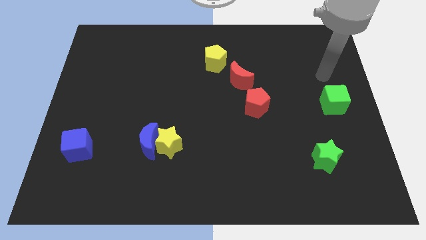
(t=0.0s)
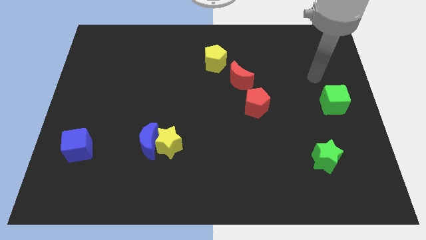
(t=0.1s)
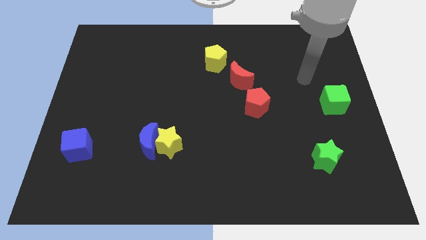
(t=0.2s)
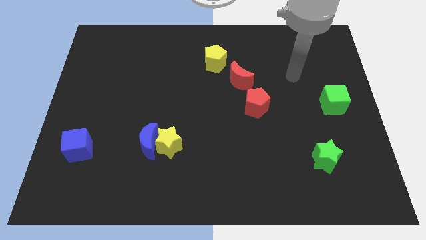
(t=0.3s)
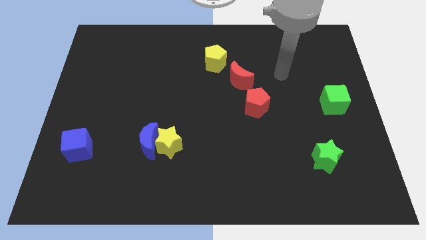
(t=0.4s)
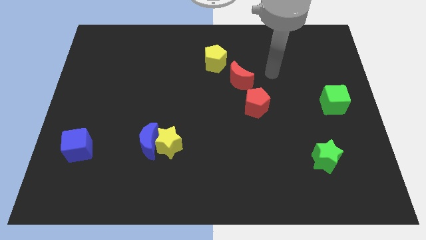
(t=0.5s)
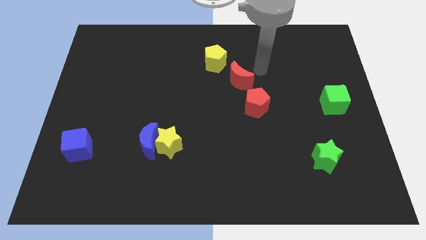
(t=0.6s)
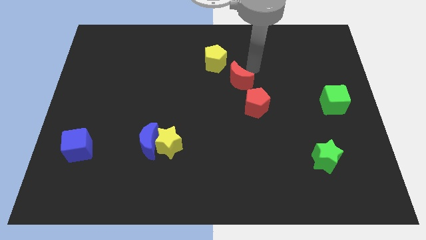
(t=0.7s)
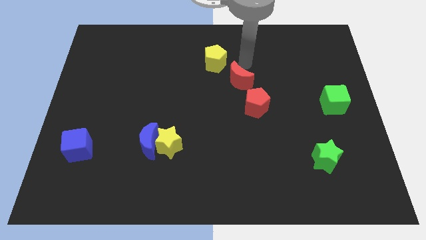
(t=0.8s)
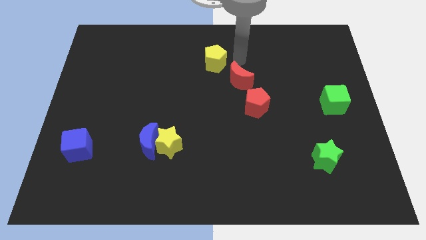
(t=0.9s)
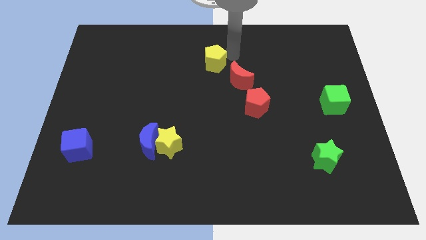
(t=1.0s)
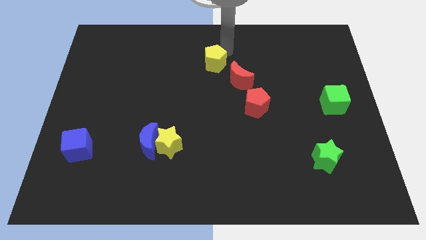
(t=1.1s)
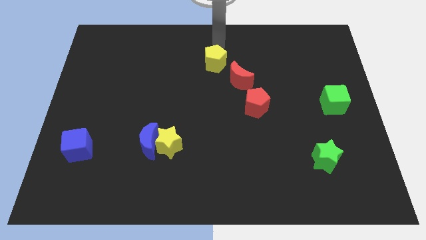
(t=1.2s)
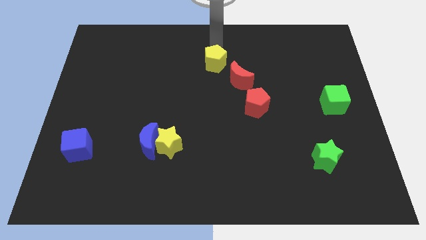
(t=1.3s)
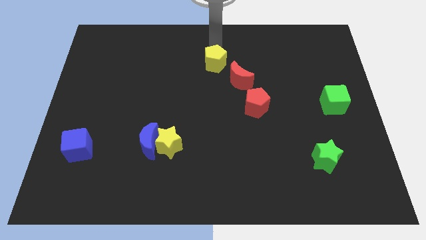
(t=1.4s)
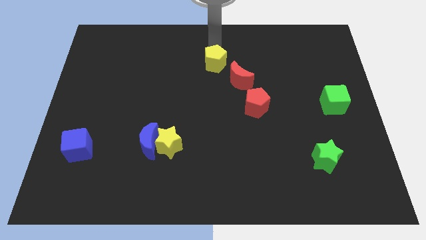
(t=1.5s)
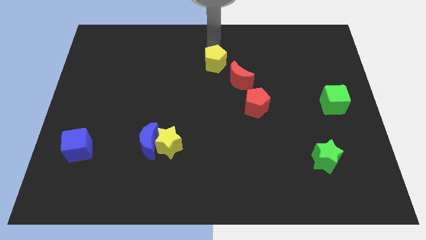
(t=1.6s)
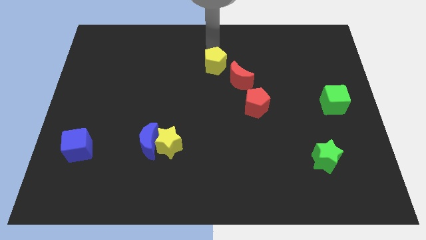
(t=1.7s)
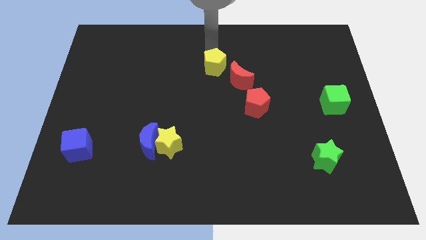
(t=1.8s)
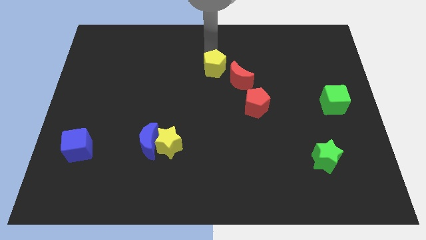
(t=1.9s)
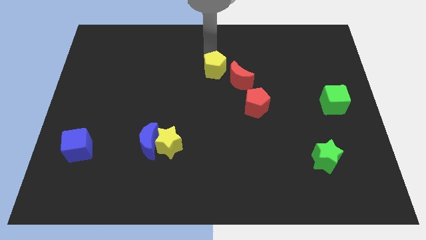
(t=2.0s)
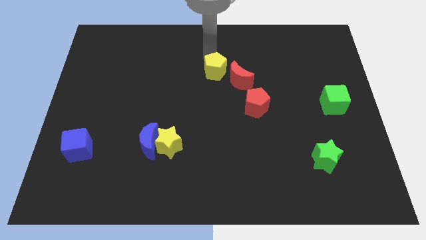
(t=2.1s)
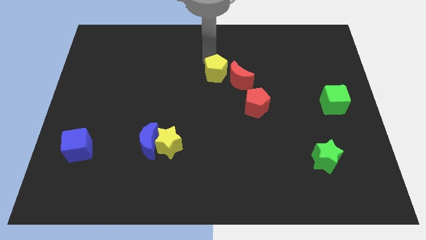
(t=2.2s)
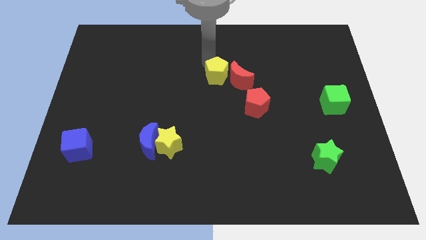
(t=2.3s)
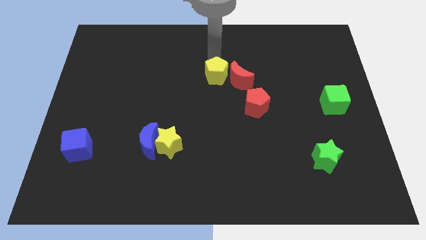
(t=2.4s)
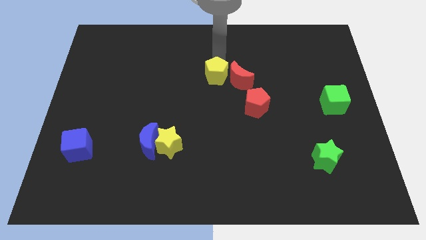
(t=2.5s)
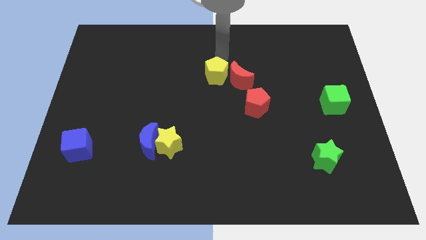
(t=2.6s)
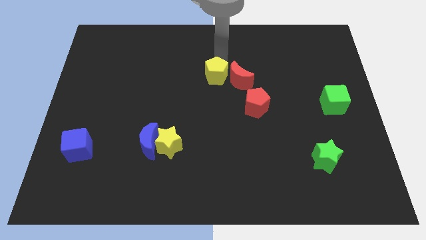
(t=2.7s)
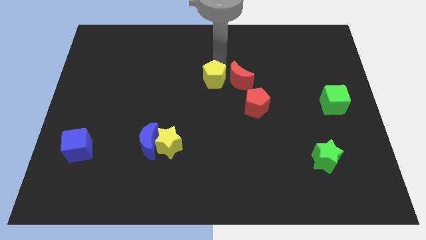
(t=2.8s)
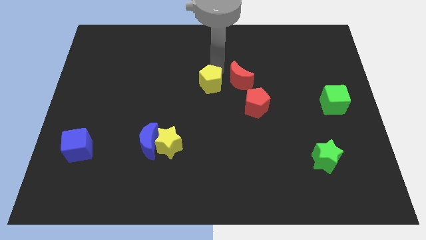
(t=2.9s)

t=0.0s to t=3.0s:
slightly move the yellow pentagon down

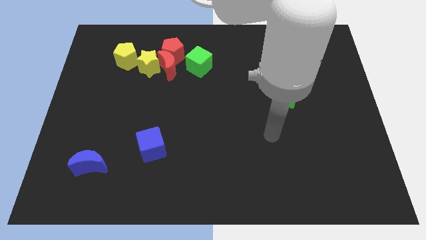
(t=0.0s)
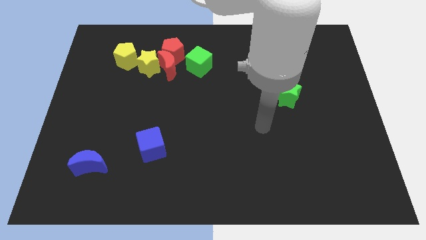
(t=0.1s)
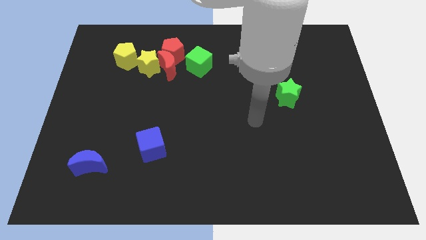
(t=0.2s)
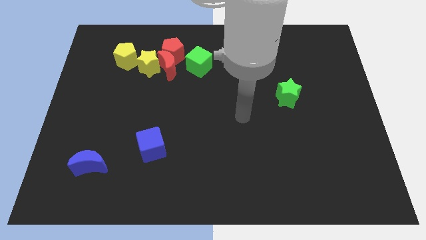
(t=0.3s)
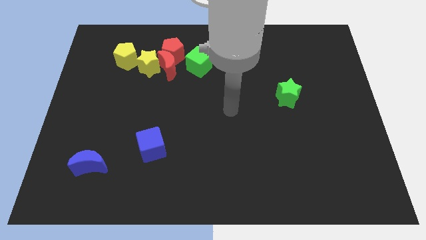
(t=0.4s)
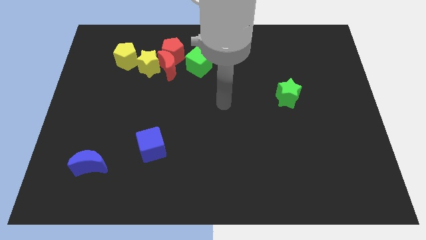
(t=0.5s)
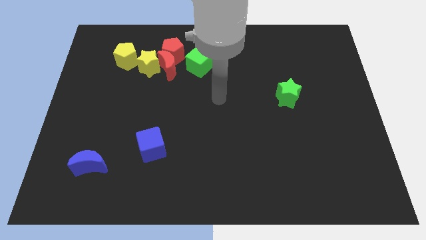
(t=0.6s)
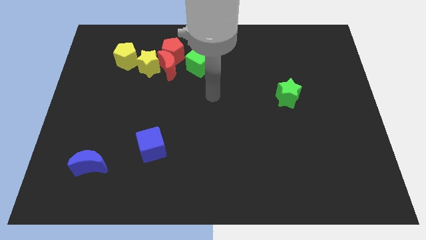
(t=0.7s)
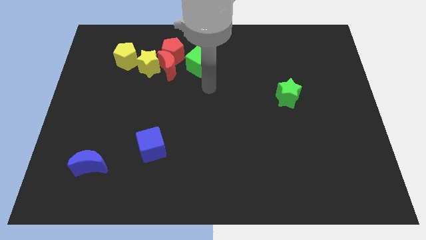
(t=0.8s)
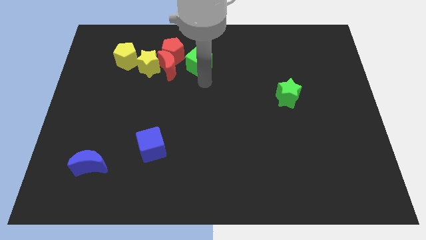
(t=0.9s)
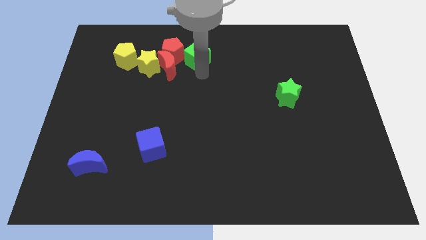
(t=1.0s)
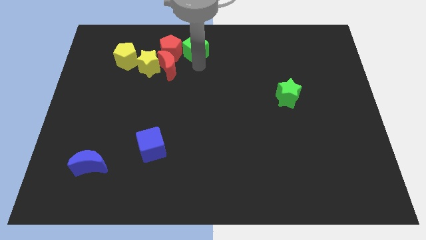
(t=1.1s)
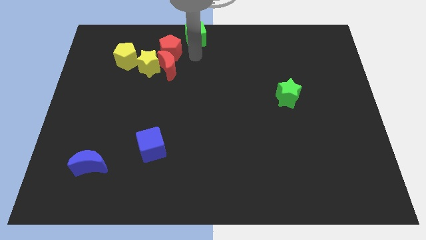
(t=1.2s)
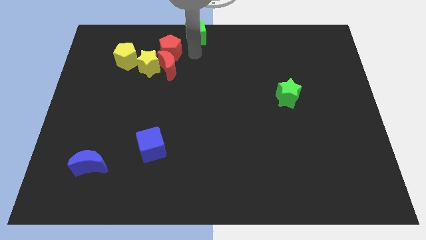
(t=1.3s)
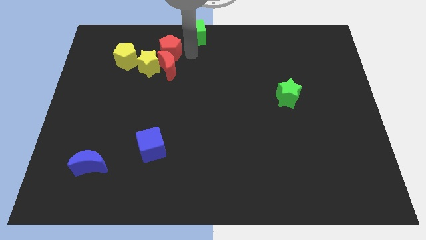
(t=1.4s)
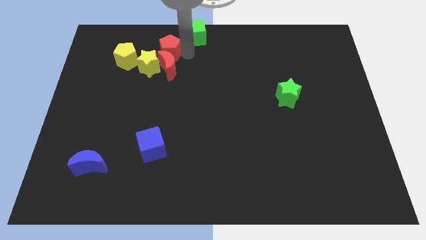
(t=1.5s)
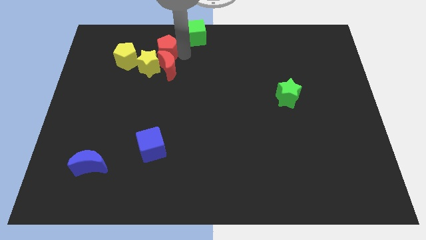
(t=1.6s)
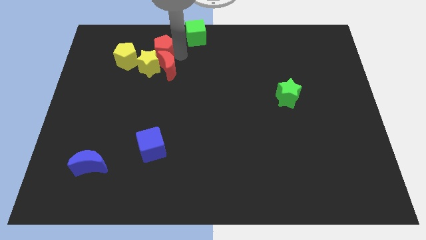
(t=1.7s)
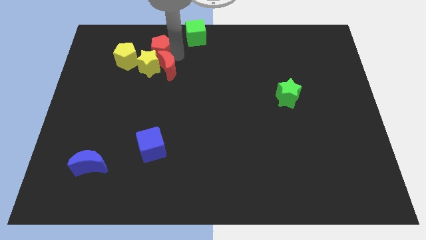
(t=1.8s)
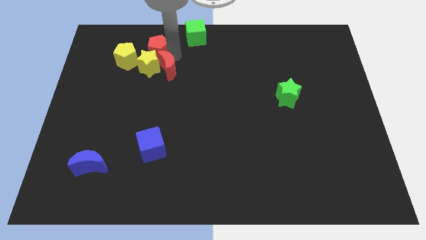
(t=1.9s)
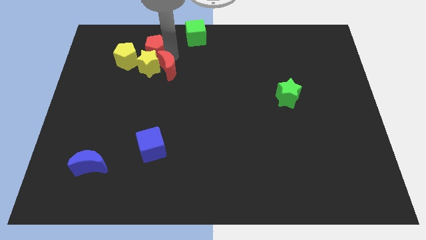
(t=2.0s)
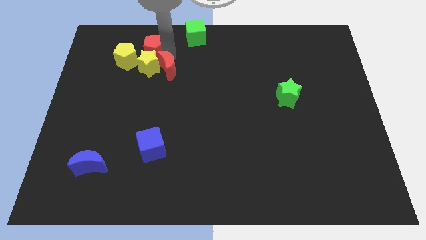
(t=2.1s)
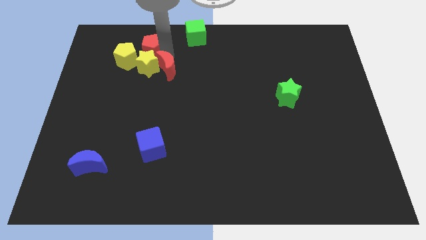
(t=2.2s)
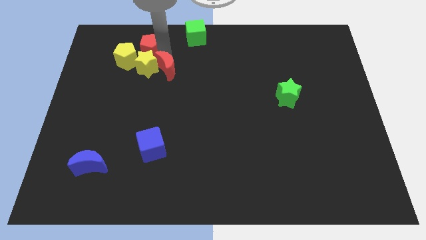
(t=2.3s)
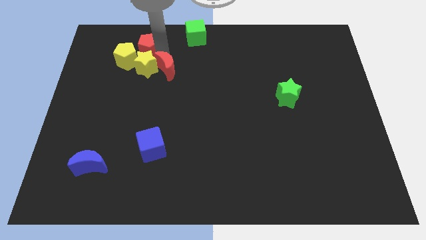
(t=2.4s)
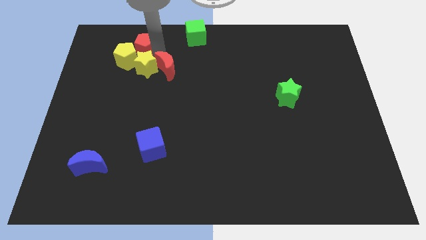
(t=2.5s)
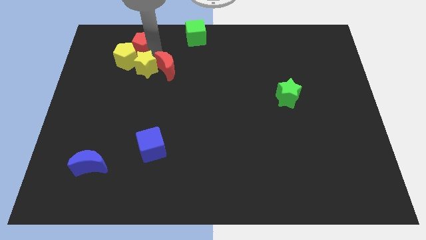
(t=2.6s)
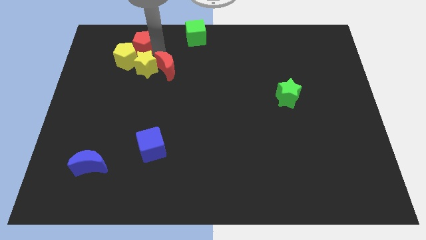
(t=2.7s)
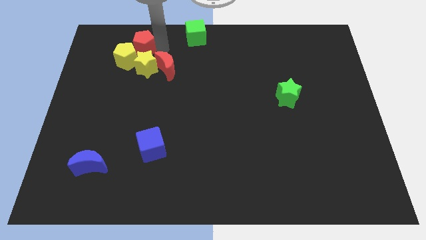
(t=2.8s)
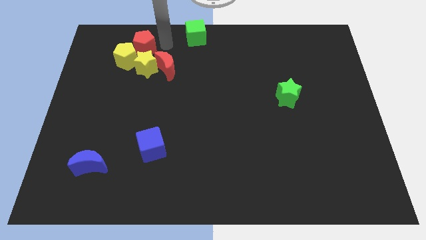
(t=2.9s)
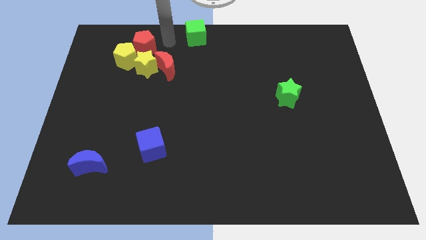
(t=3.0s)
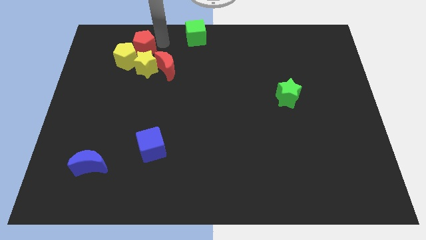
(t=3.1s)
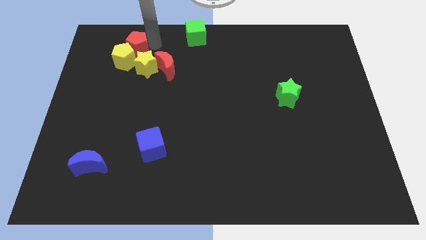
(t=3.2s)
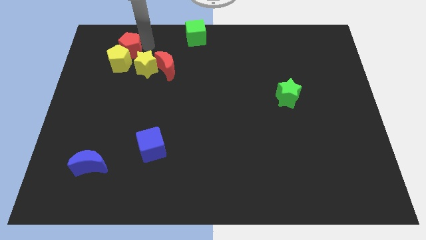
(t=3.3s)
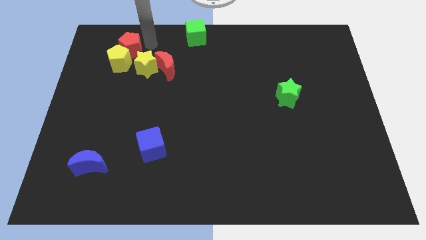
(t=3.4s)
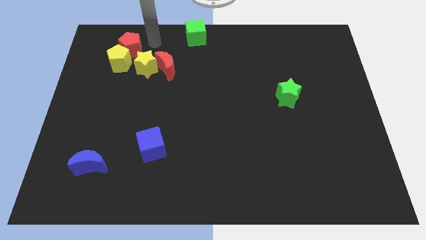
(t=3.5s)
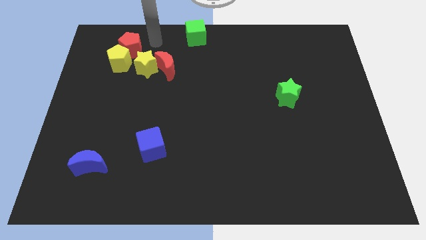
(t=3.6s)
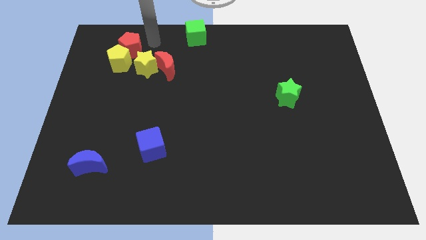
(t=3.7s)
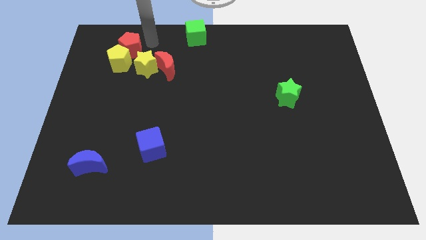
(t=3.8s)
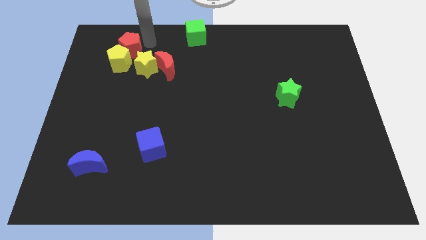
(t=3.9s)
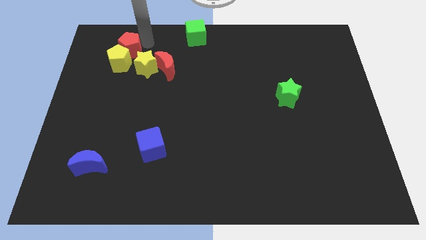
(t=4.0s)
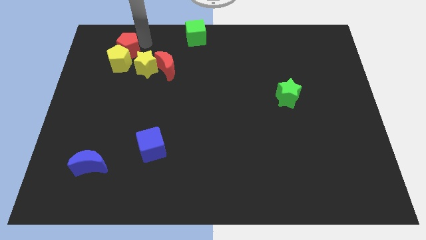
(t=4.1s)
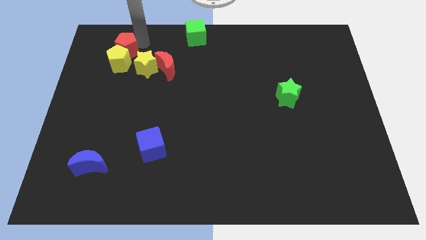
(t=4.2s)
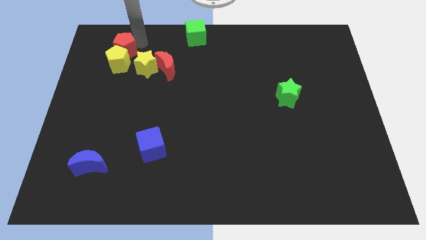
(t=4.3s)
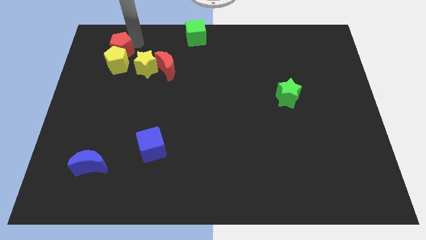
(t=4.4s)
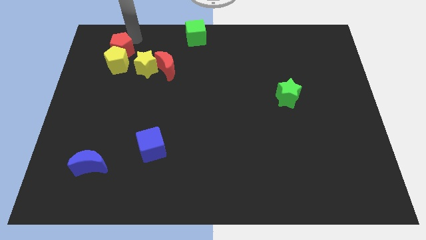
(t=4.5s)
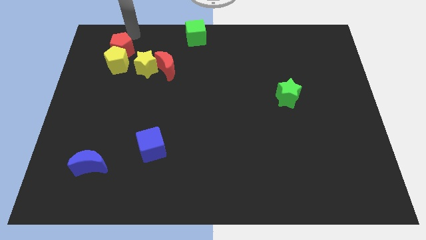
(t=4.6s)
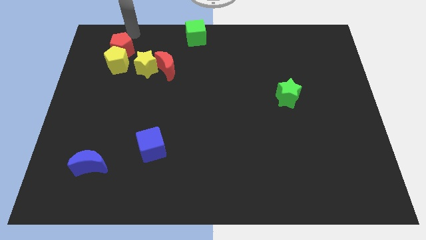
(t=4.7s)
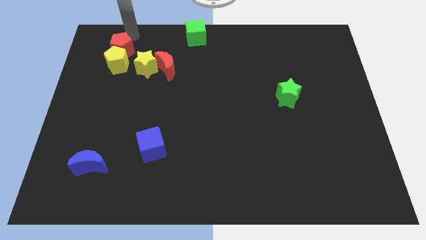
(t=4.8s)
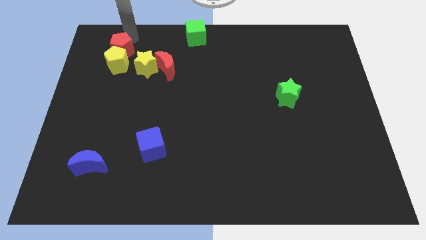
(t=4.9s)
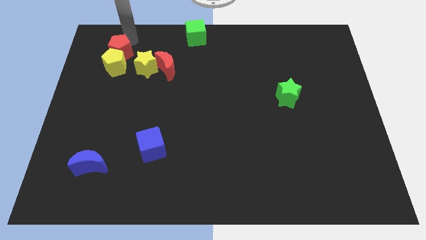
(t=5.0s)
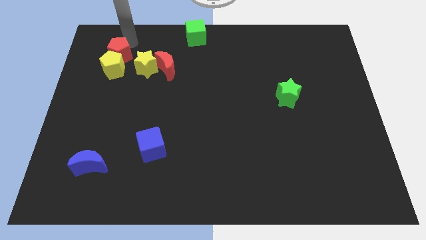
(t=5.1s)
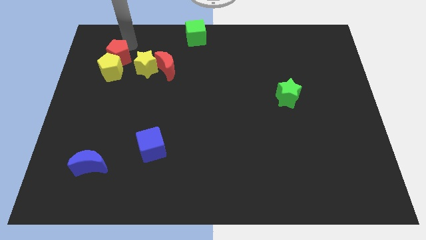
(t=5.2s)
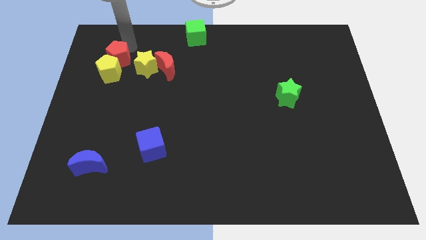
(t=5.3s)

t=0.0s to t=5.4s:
move the red pentagon down and to the left a bit
